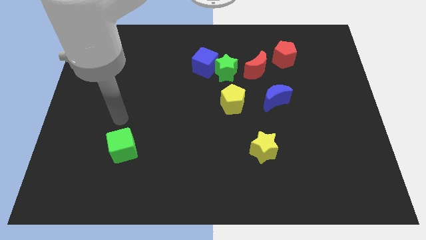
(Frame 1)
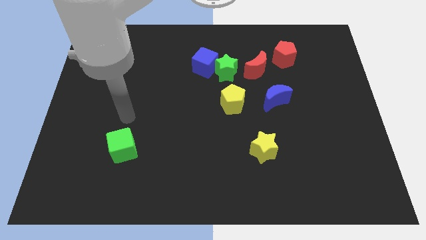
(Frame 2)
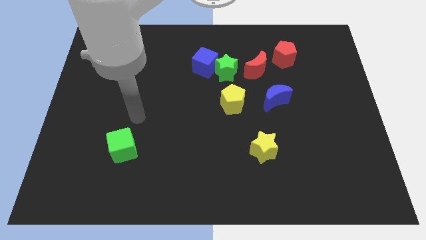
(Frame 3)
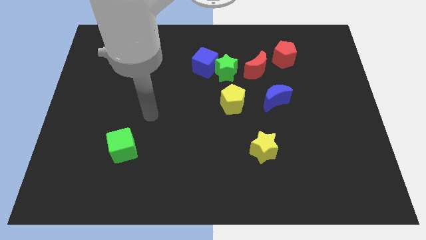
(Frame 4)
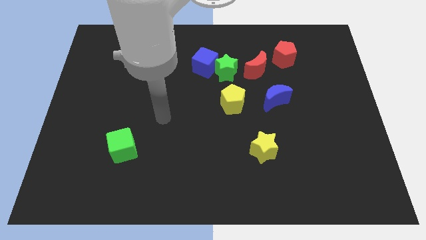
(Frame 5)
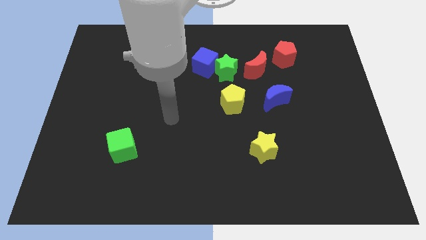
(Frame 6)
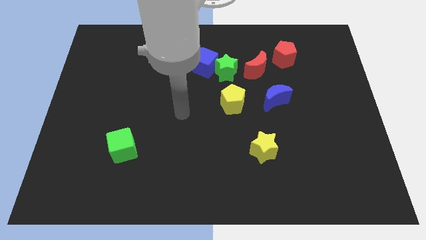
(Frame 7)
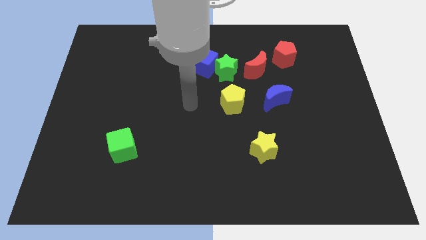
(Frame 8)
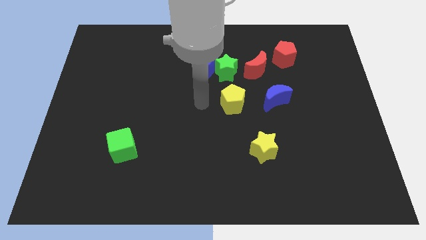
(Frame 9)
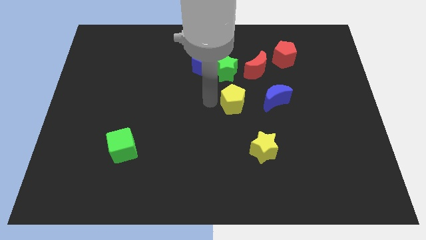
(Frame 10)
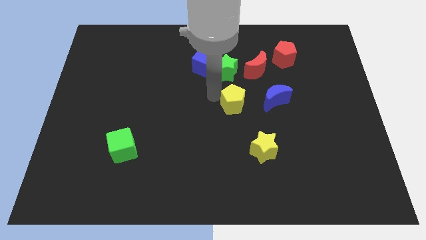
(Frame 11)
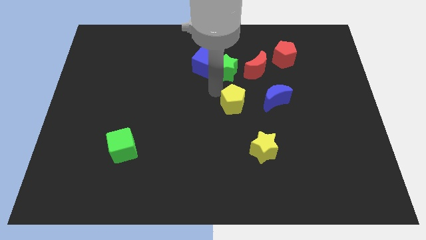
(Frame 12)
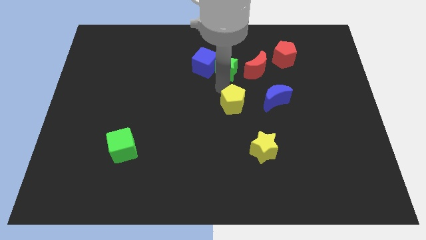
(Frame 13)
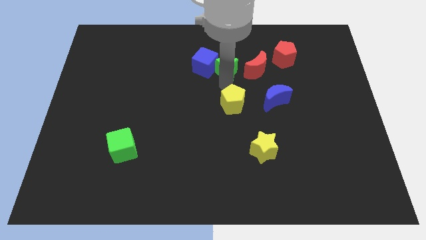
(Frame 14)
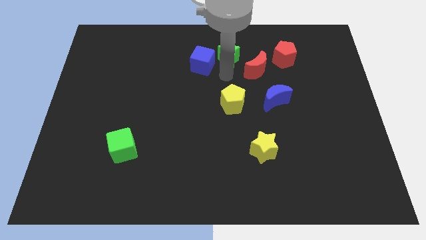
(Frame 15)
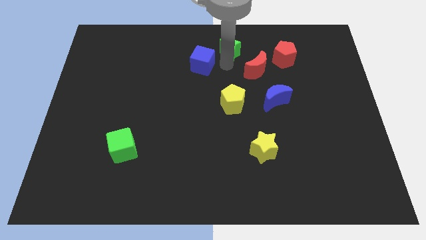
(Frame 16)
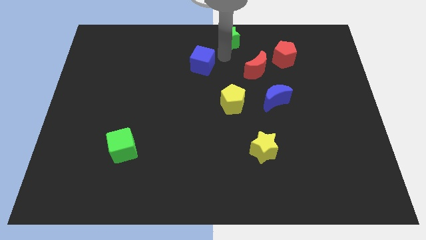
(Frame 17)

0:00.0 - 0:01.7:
pull the blue cube apart from the green star

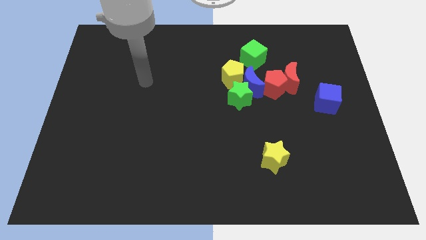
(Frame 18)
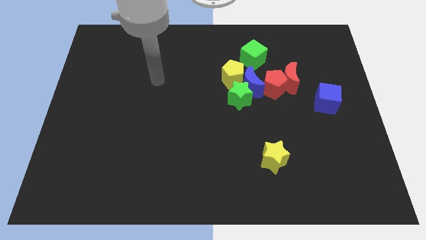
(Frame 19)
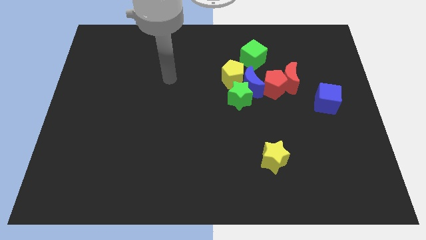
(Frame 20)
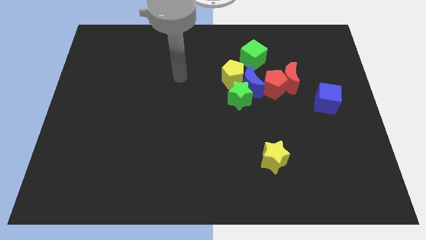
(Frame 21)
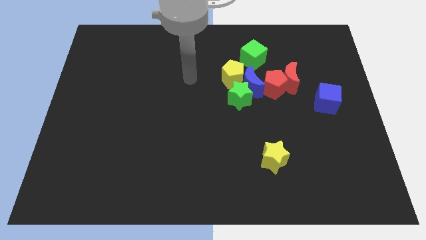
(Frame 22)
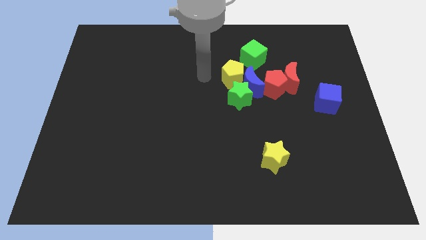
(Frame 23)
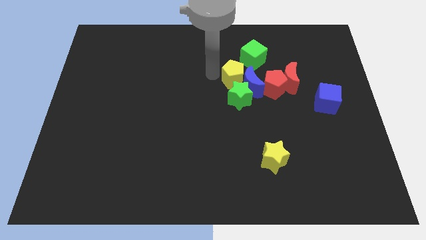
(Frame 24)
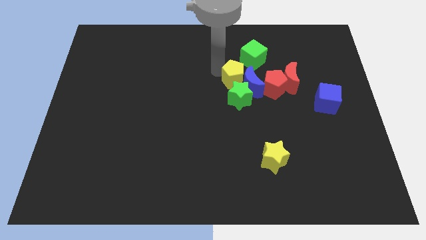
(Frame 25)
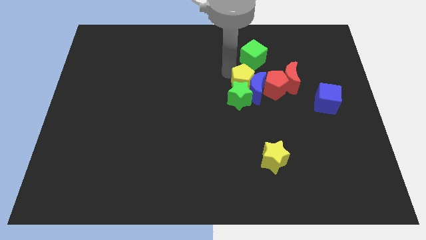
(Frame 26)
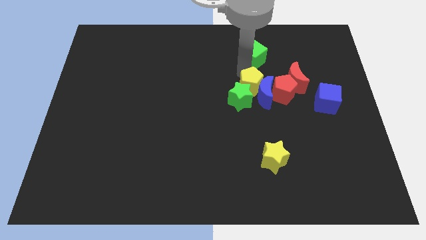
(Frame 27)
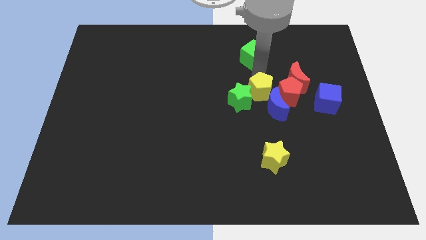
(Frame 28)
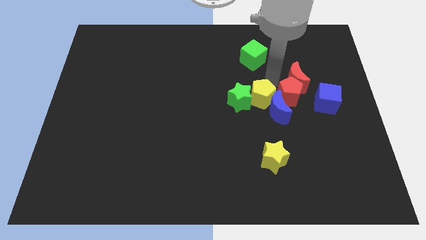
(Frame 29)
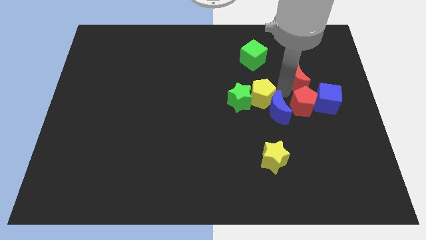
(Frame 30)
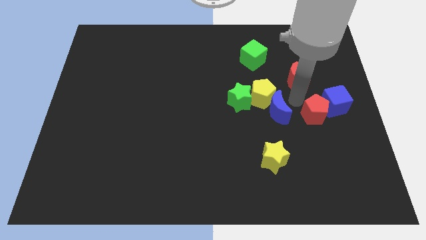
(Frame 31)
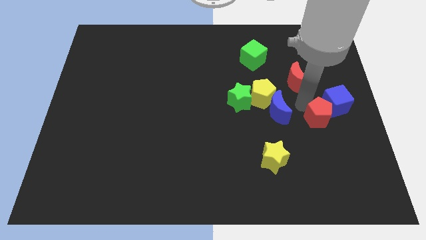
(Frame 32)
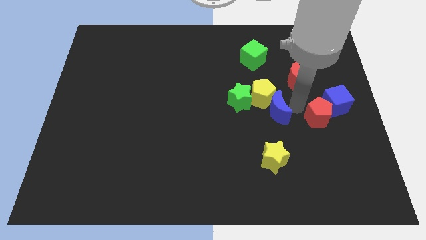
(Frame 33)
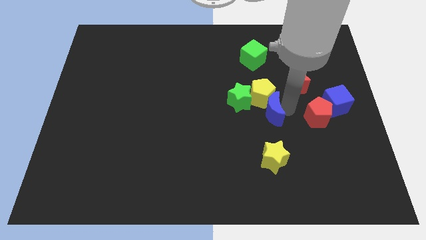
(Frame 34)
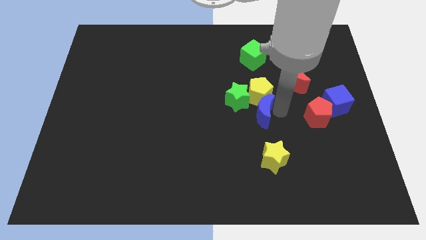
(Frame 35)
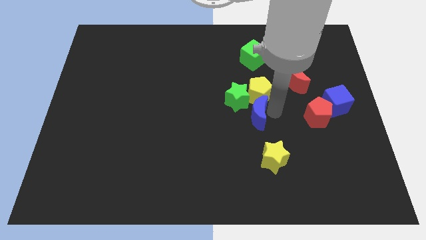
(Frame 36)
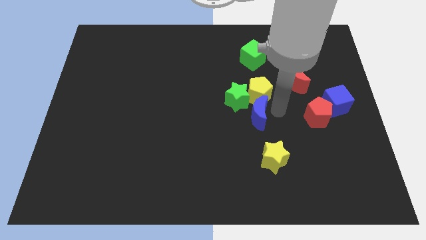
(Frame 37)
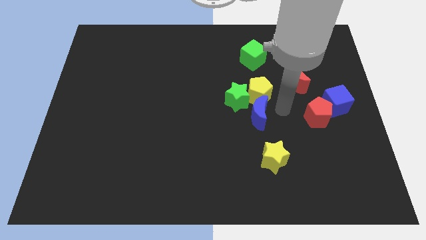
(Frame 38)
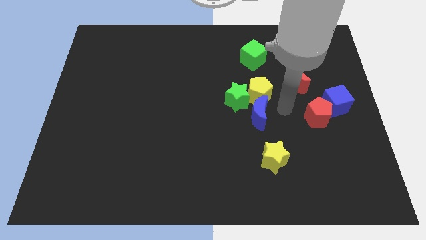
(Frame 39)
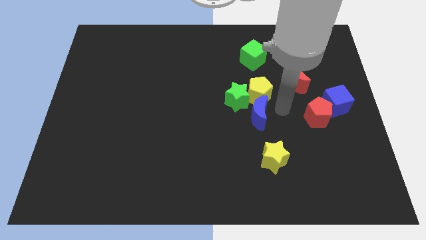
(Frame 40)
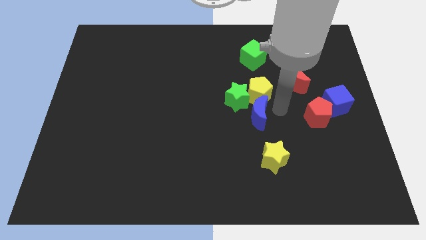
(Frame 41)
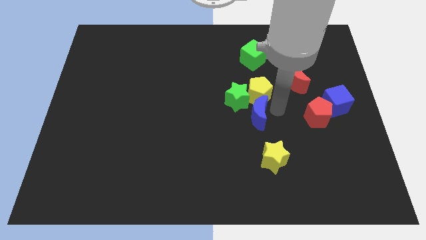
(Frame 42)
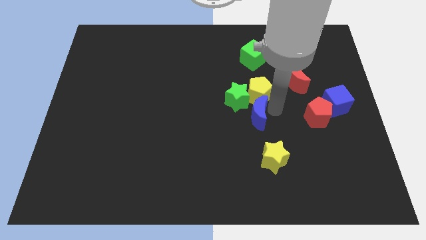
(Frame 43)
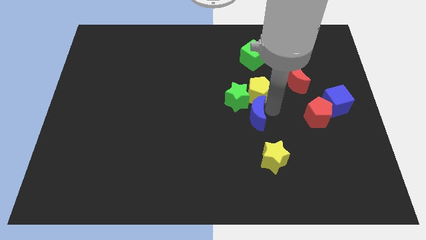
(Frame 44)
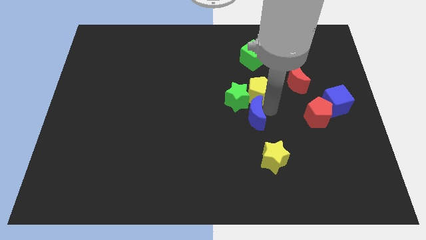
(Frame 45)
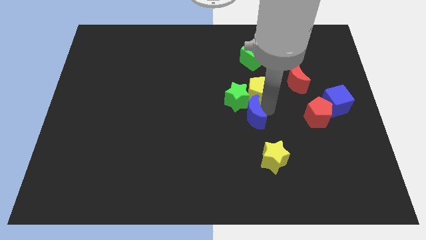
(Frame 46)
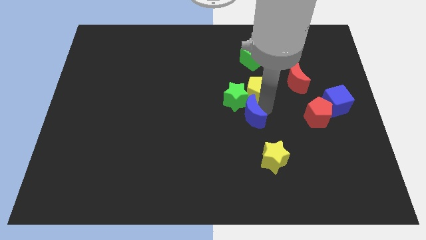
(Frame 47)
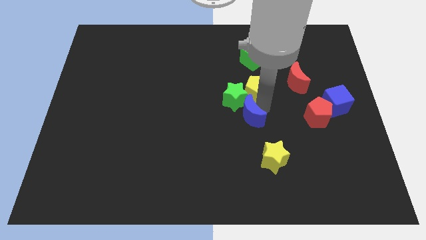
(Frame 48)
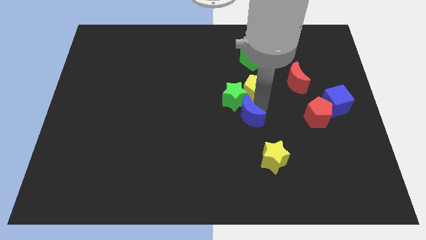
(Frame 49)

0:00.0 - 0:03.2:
pull the blue moon apart from the clump

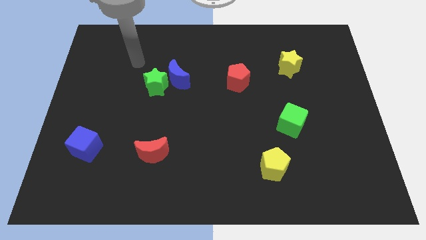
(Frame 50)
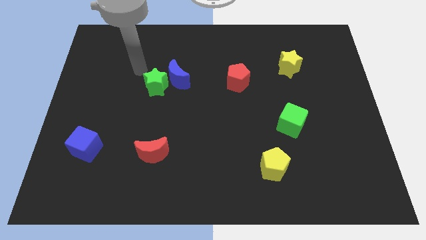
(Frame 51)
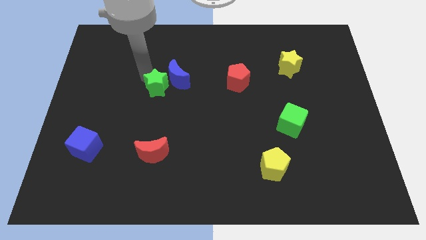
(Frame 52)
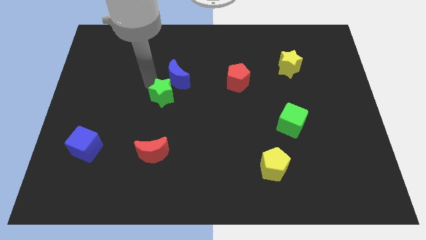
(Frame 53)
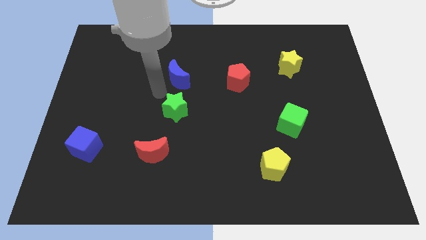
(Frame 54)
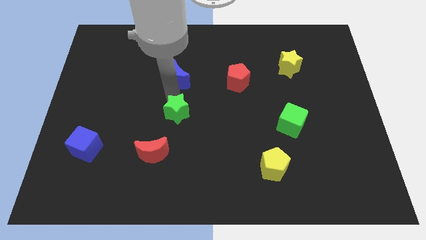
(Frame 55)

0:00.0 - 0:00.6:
pull the blue moon apart from the green star

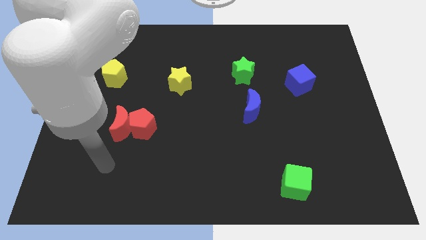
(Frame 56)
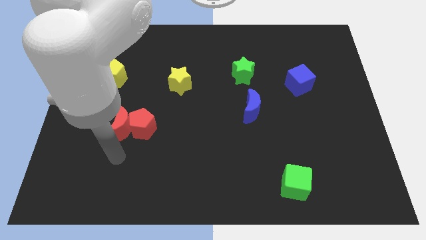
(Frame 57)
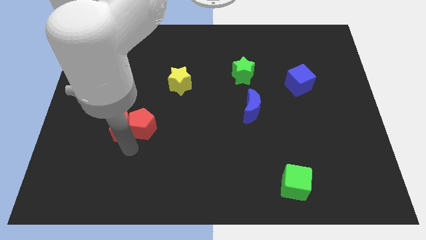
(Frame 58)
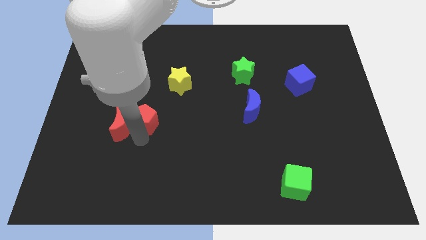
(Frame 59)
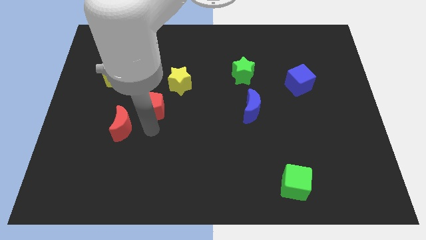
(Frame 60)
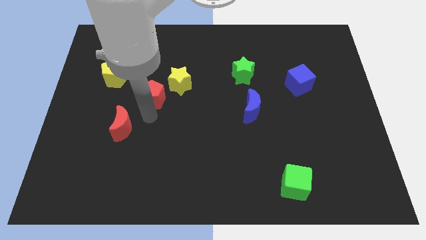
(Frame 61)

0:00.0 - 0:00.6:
pull the red moon apart from the red pentagon

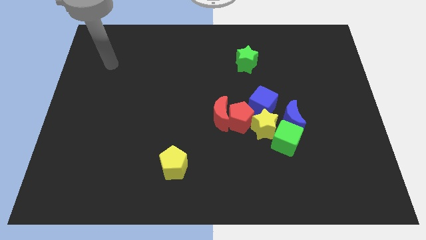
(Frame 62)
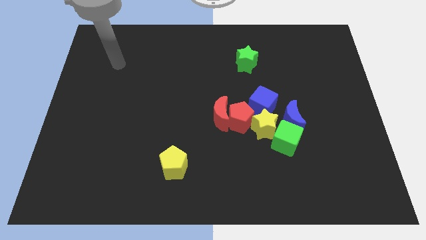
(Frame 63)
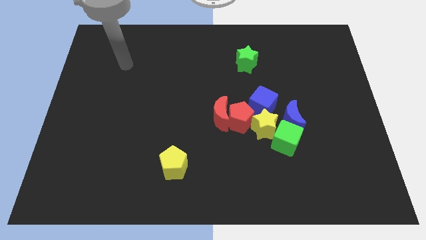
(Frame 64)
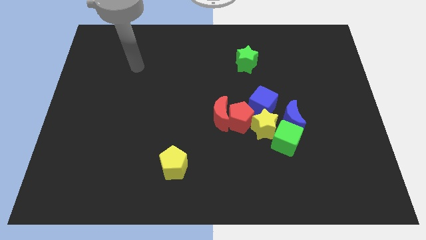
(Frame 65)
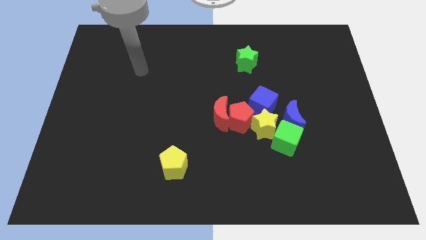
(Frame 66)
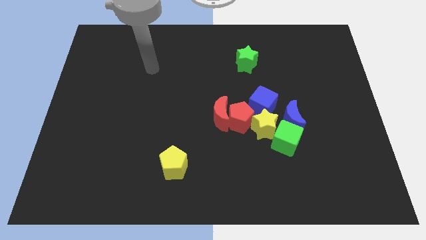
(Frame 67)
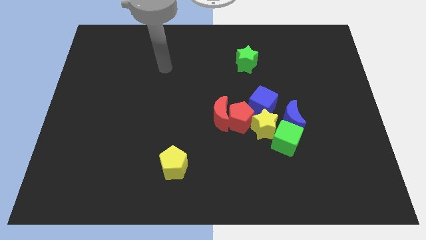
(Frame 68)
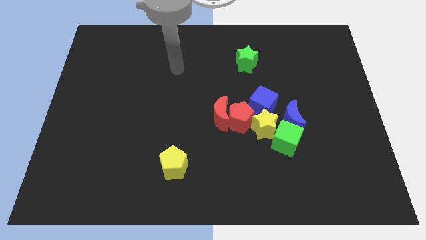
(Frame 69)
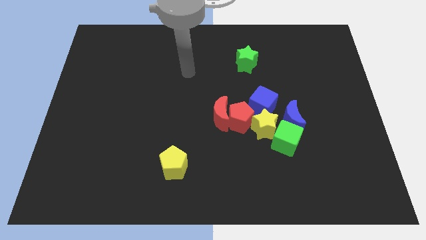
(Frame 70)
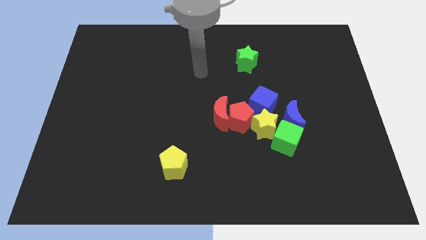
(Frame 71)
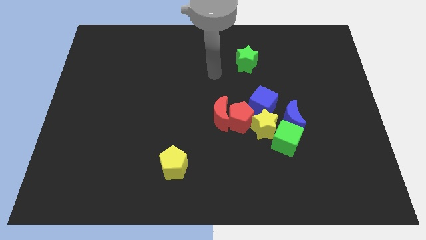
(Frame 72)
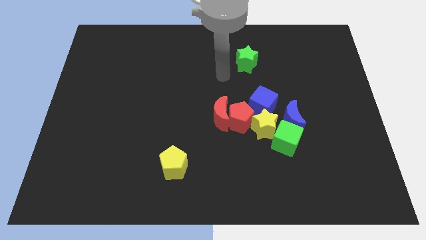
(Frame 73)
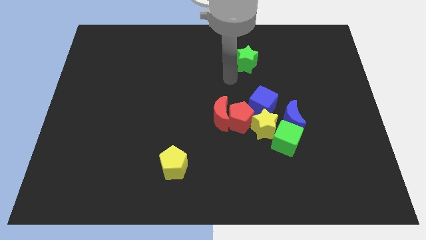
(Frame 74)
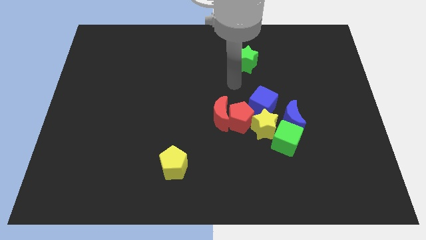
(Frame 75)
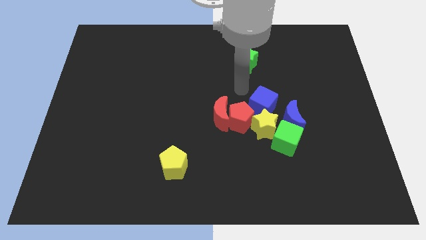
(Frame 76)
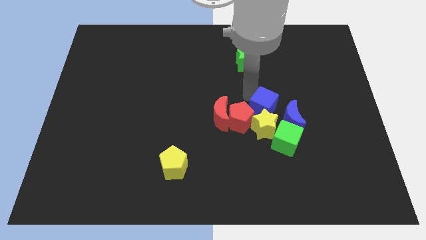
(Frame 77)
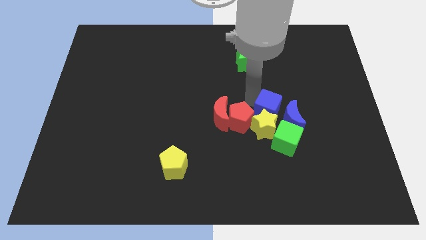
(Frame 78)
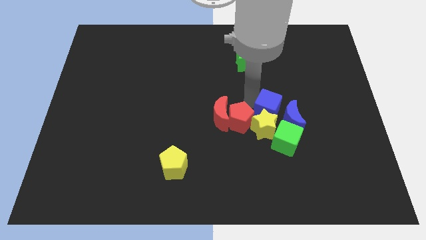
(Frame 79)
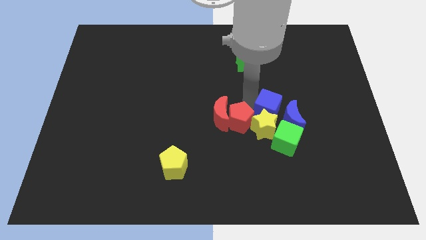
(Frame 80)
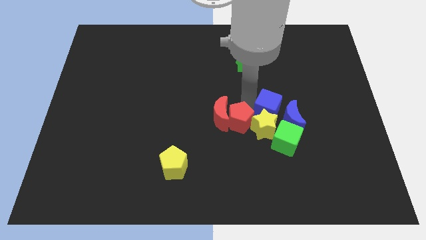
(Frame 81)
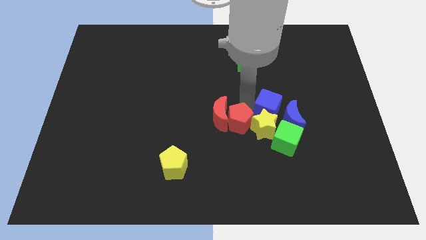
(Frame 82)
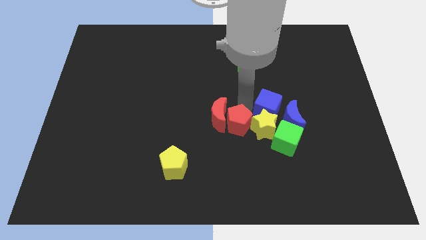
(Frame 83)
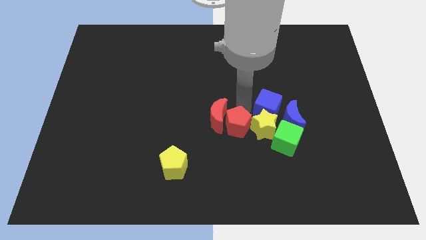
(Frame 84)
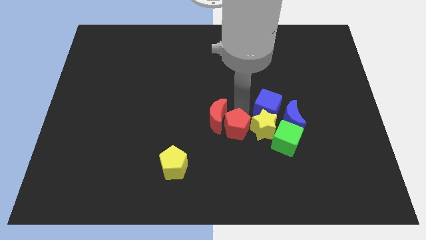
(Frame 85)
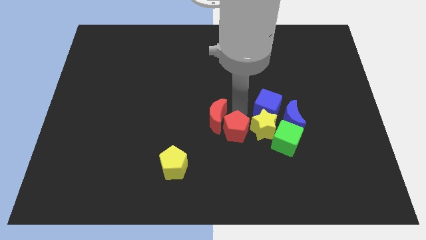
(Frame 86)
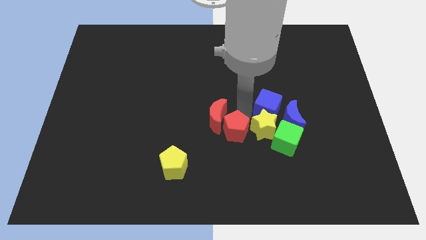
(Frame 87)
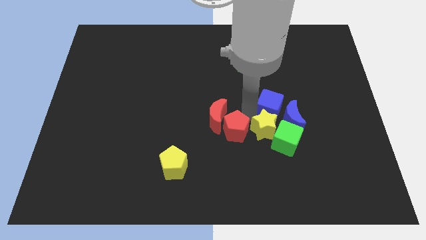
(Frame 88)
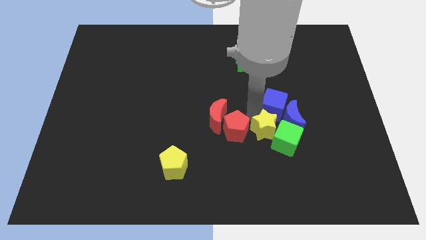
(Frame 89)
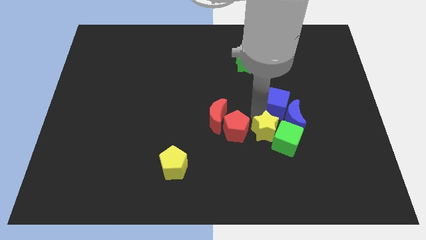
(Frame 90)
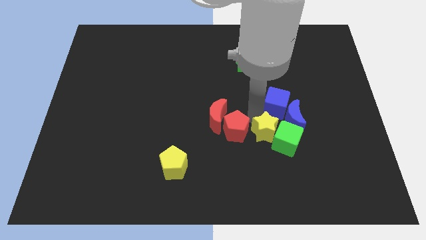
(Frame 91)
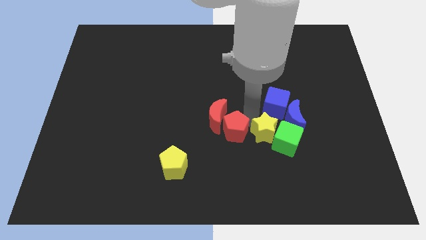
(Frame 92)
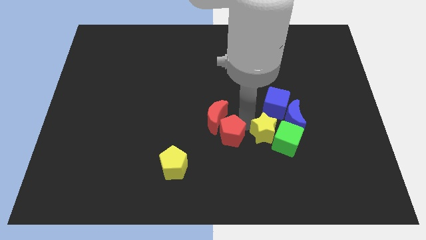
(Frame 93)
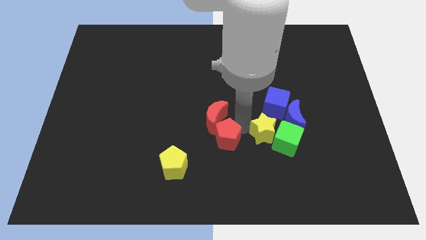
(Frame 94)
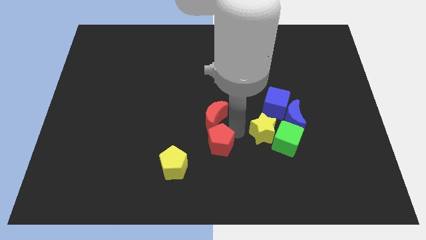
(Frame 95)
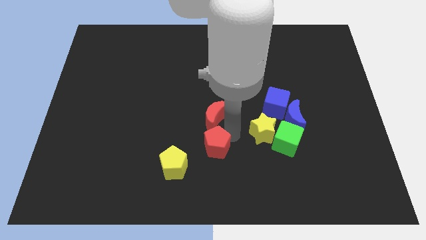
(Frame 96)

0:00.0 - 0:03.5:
move the red pentagon away from the group of blocks
